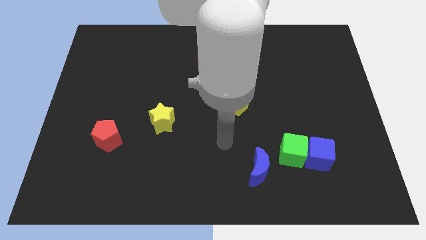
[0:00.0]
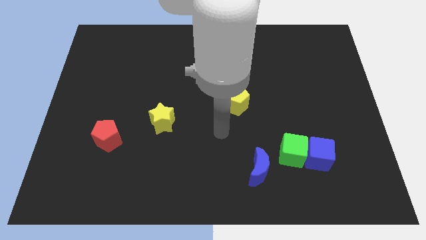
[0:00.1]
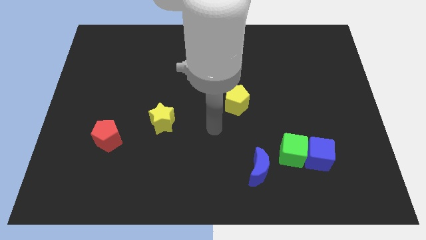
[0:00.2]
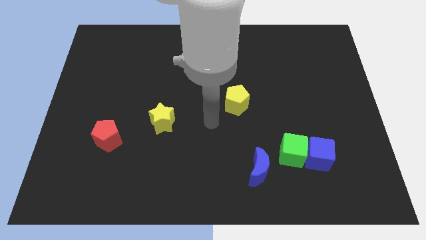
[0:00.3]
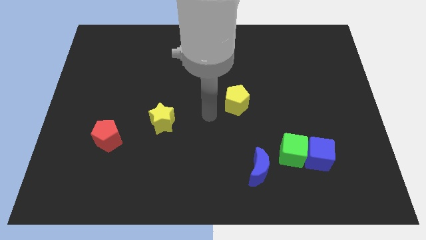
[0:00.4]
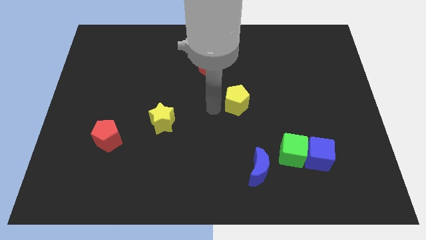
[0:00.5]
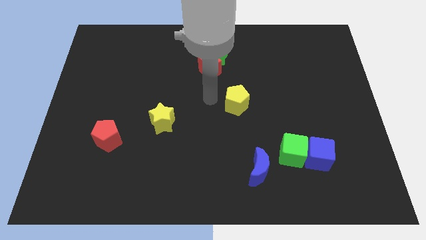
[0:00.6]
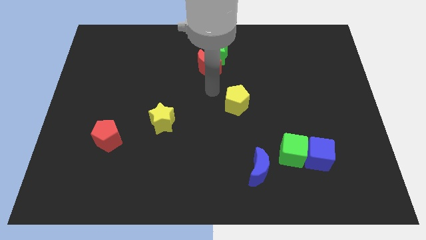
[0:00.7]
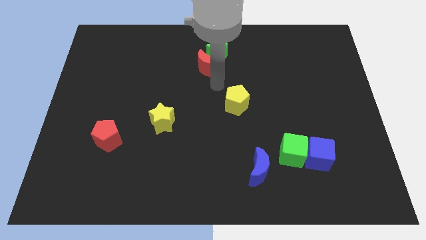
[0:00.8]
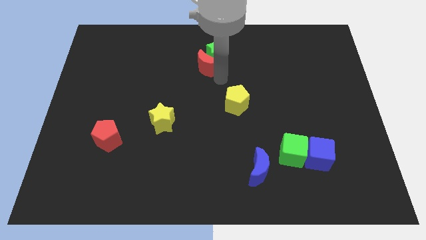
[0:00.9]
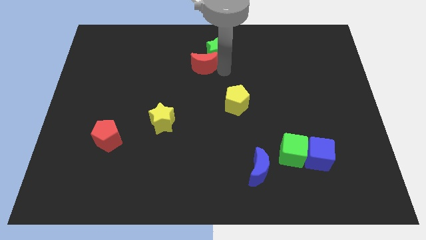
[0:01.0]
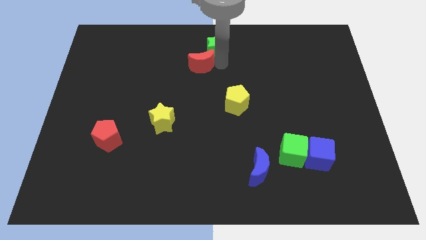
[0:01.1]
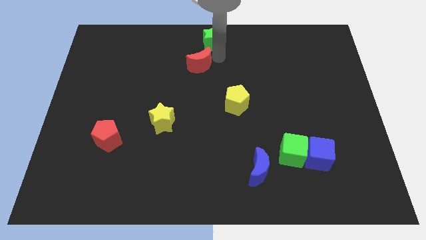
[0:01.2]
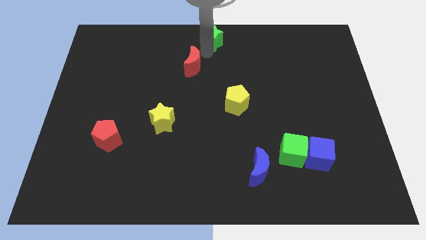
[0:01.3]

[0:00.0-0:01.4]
move the red moon away from the green star

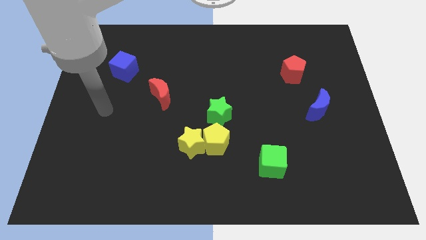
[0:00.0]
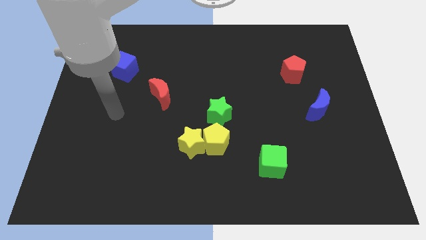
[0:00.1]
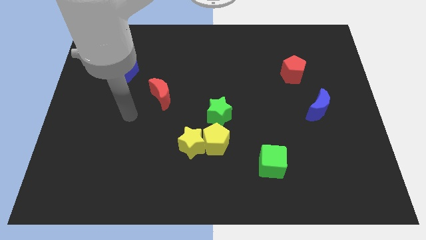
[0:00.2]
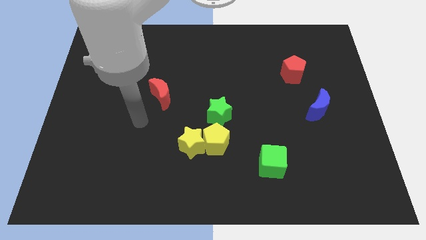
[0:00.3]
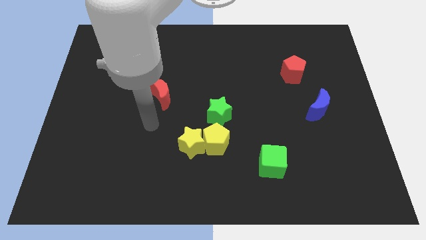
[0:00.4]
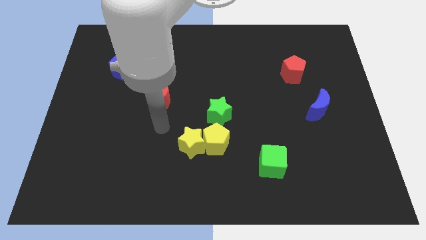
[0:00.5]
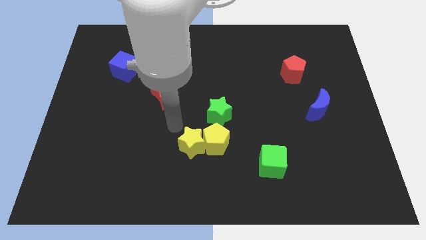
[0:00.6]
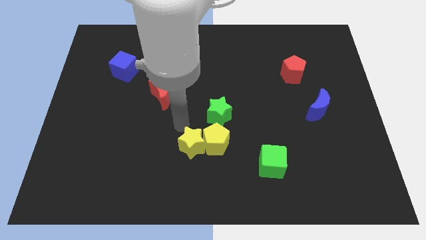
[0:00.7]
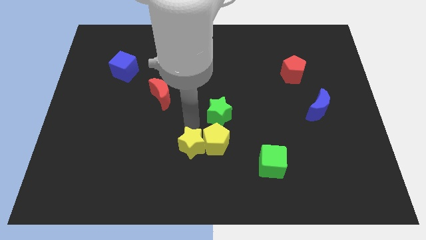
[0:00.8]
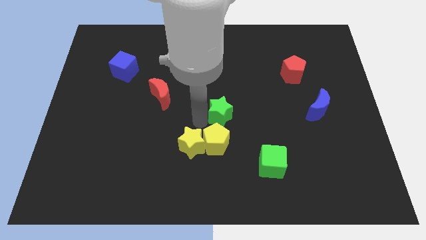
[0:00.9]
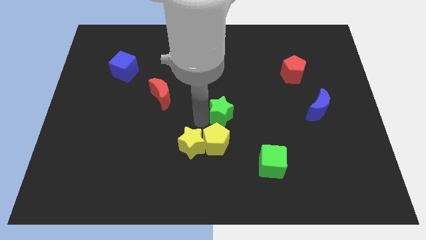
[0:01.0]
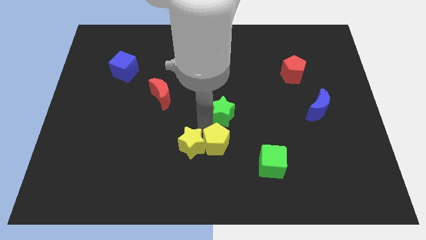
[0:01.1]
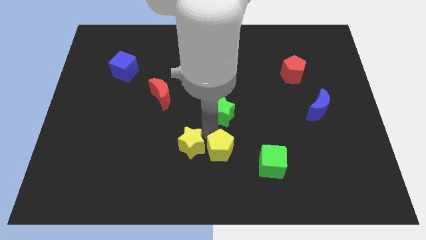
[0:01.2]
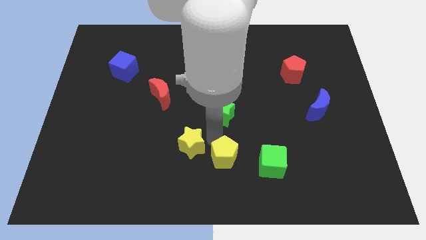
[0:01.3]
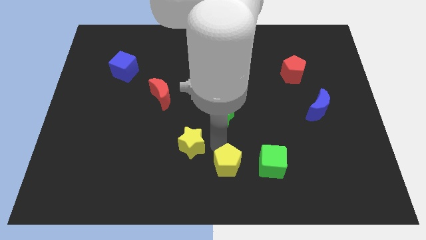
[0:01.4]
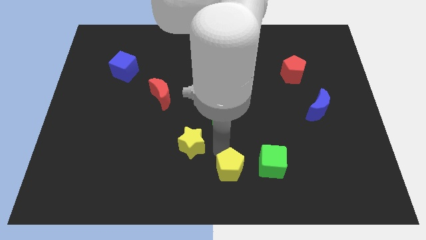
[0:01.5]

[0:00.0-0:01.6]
pull the yellow pentagon apart from the yellow star and green star

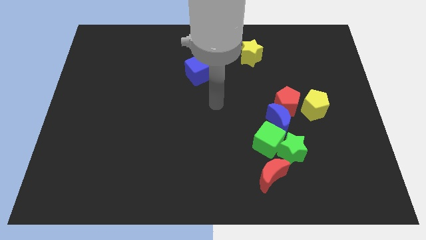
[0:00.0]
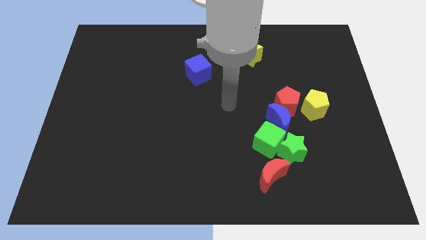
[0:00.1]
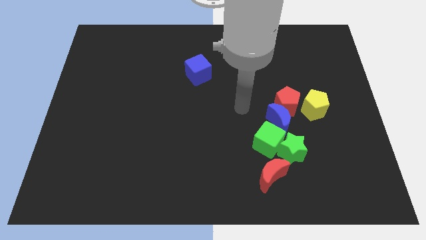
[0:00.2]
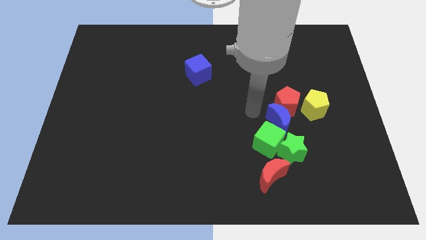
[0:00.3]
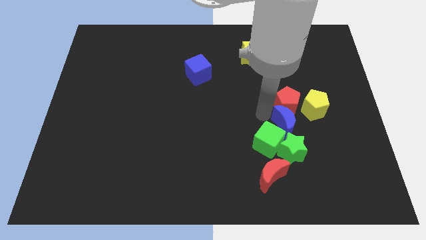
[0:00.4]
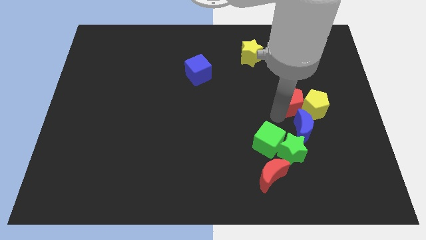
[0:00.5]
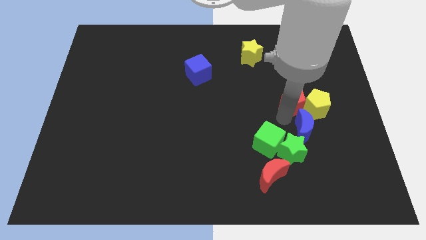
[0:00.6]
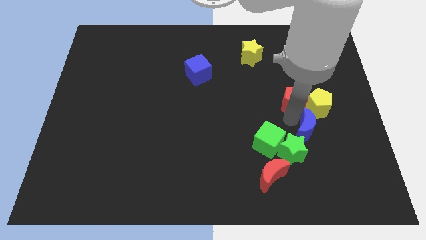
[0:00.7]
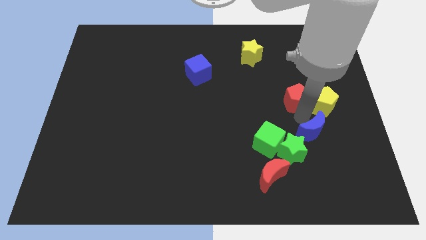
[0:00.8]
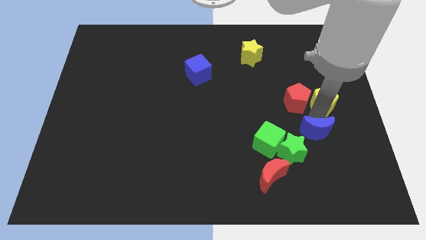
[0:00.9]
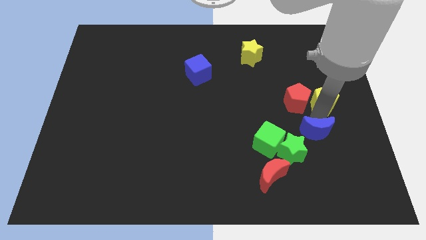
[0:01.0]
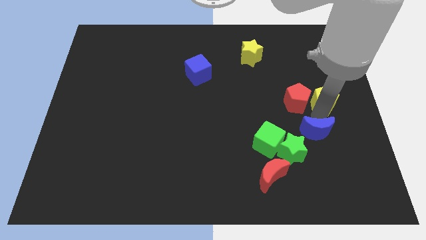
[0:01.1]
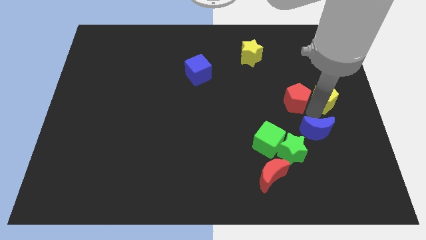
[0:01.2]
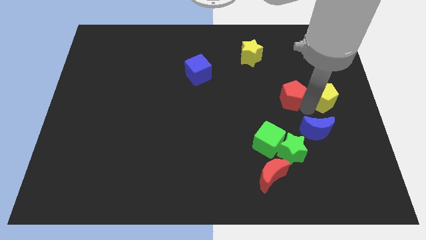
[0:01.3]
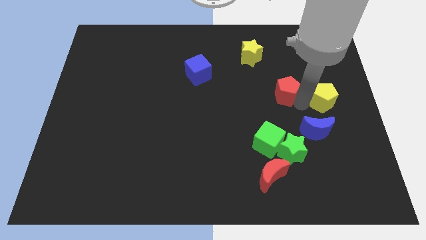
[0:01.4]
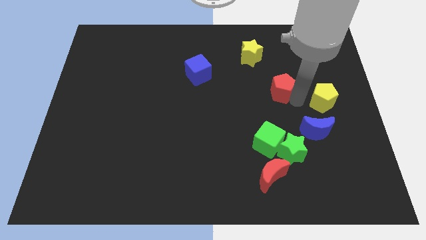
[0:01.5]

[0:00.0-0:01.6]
separate the red pentagon from the blue moon and yellow pentagon

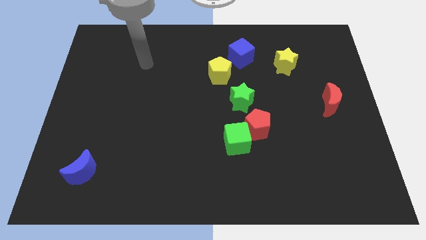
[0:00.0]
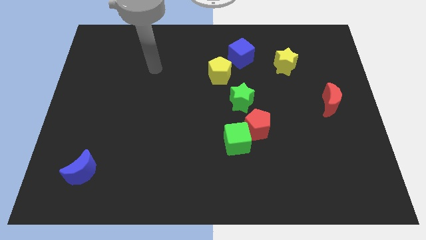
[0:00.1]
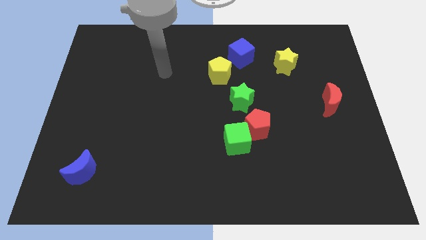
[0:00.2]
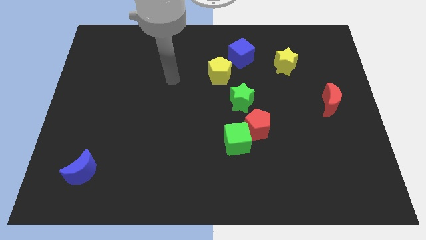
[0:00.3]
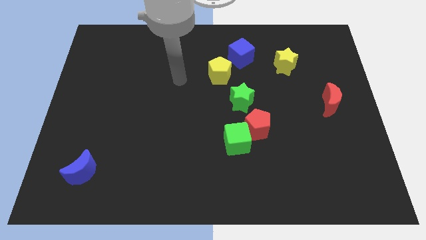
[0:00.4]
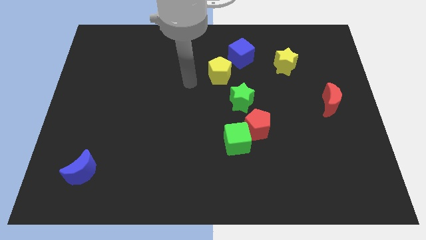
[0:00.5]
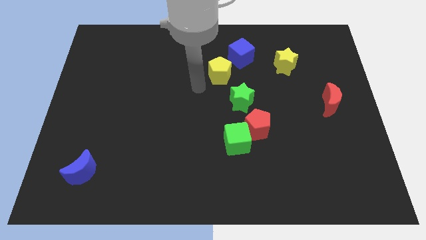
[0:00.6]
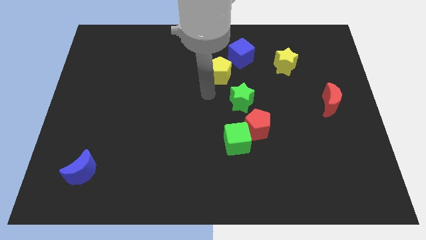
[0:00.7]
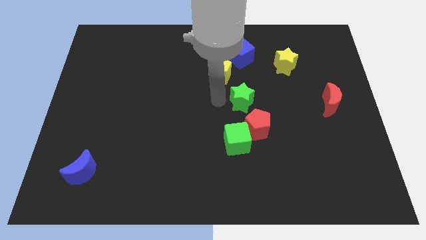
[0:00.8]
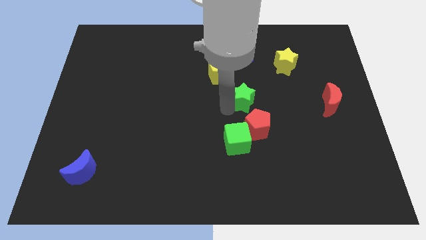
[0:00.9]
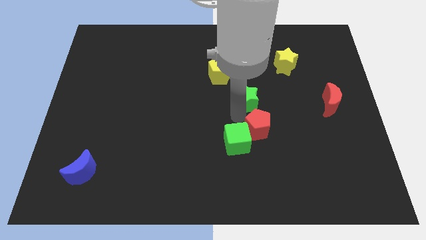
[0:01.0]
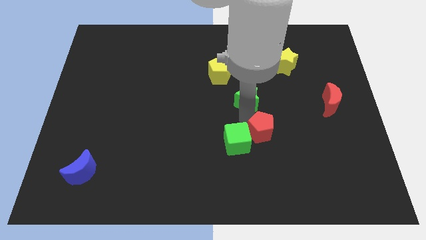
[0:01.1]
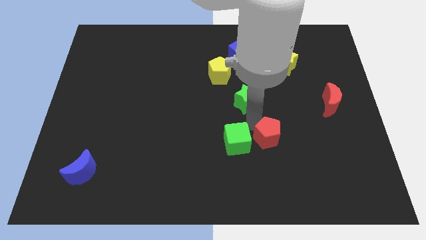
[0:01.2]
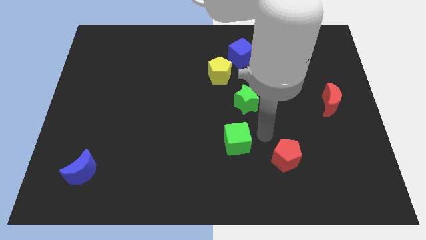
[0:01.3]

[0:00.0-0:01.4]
separate the green cube from the red pentagon

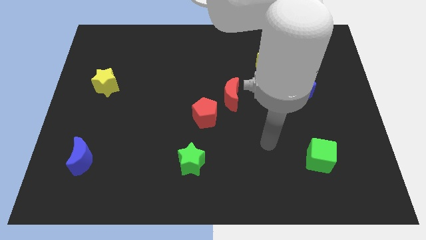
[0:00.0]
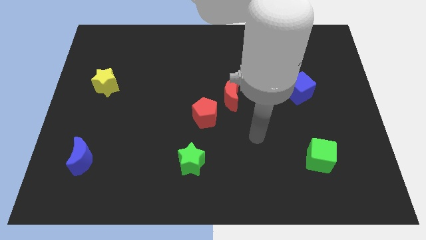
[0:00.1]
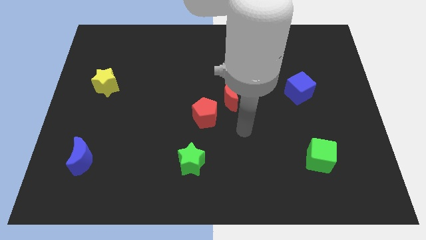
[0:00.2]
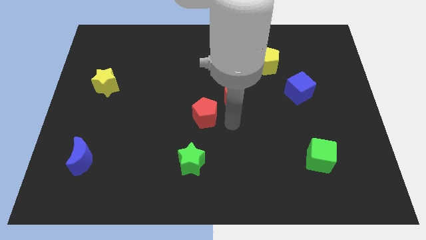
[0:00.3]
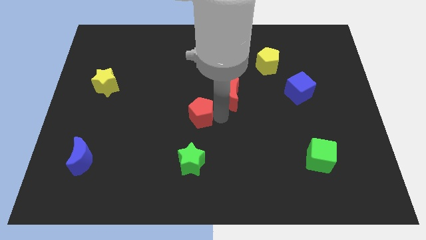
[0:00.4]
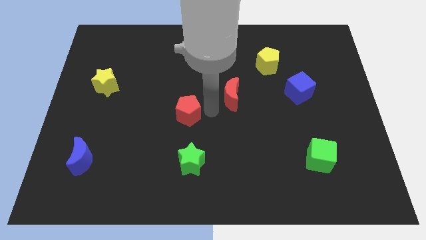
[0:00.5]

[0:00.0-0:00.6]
move the red moon away from the red pentagon

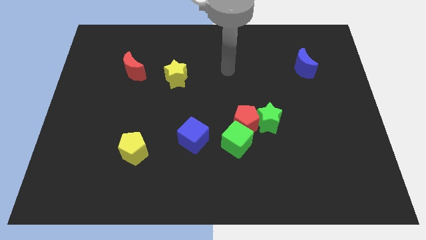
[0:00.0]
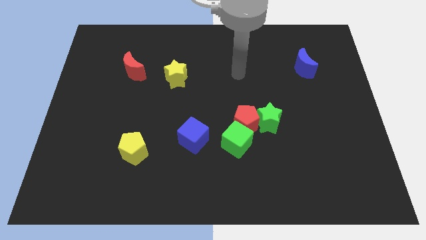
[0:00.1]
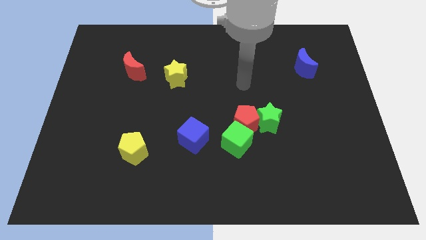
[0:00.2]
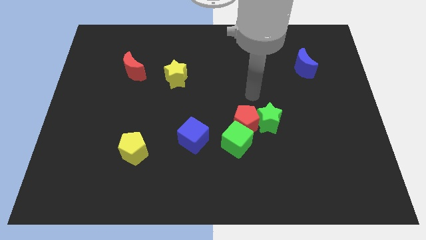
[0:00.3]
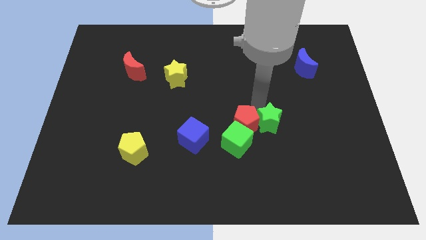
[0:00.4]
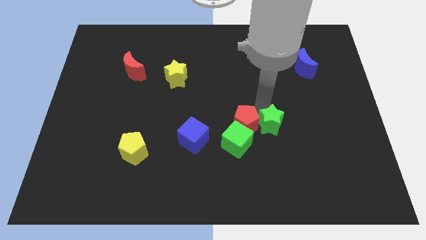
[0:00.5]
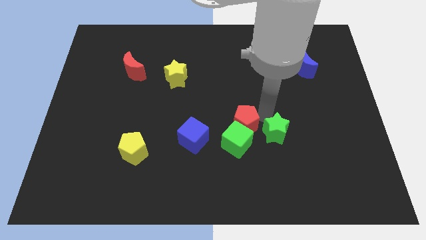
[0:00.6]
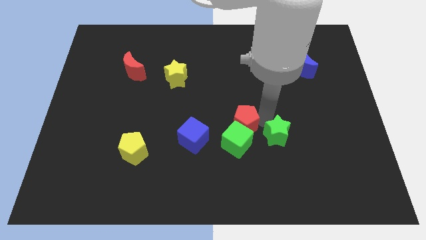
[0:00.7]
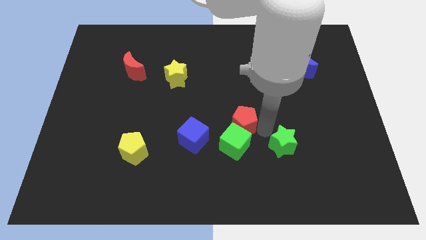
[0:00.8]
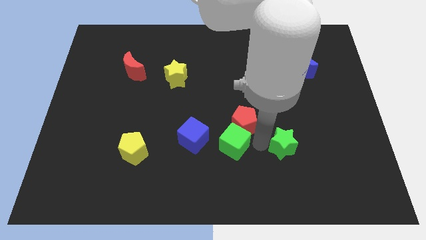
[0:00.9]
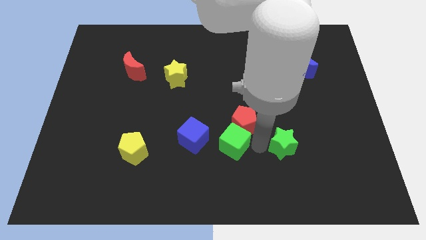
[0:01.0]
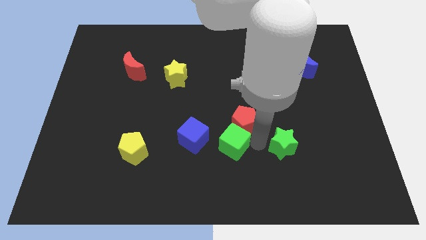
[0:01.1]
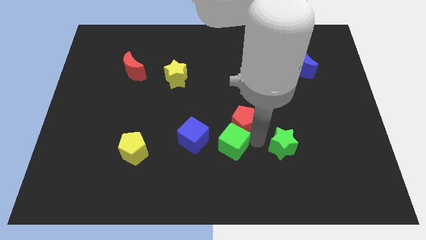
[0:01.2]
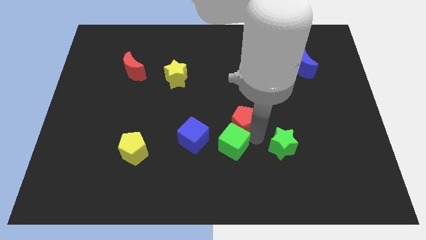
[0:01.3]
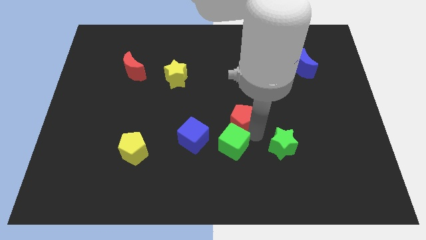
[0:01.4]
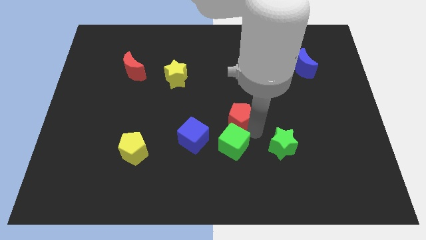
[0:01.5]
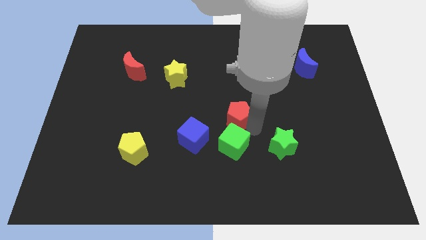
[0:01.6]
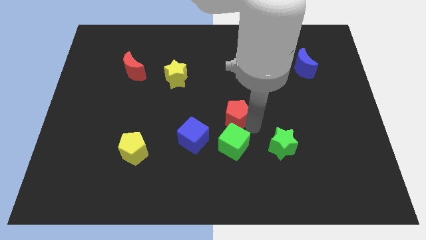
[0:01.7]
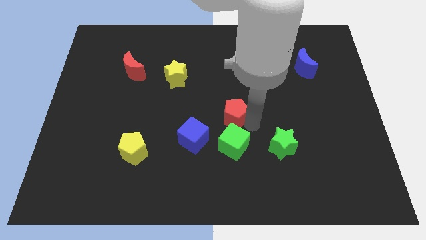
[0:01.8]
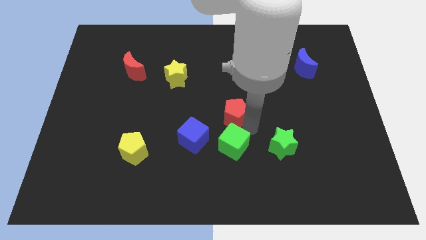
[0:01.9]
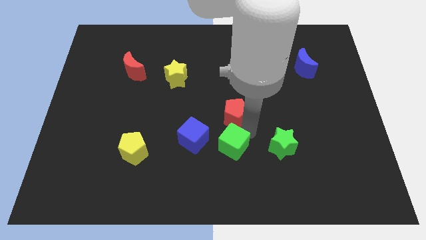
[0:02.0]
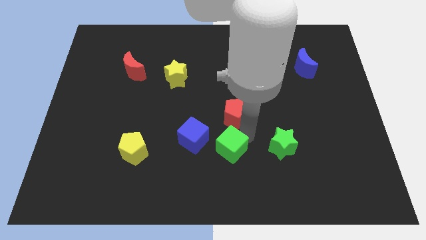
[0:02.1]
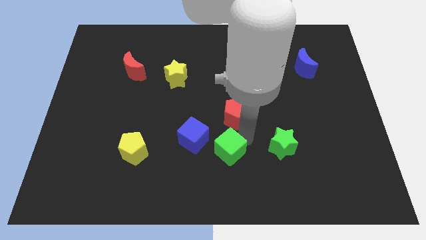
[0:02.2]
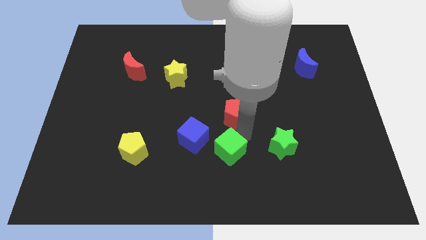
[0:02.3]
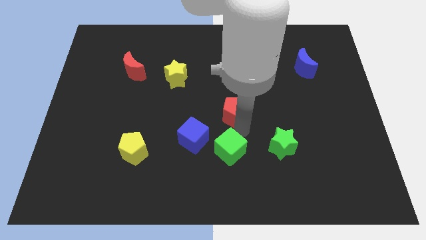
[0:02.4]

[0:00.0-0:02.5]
move the red pentagon away from the green star and green cube

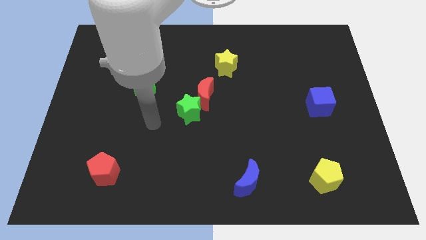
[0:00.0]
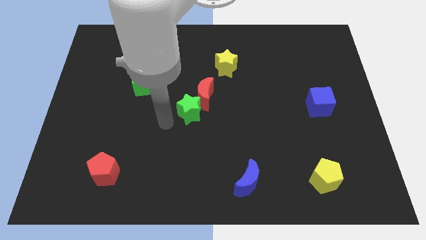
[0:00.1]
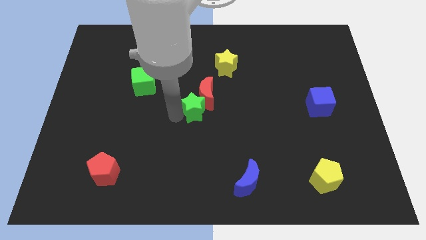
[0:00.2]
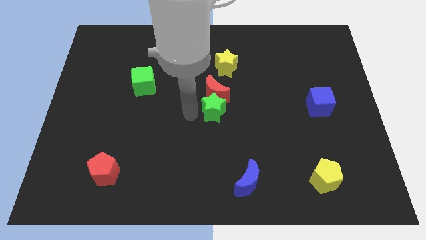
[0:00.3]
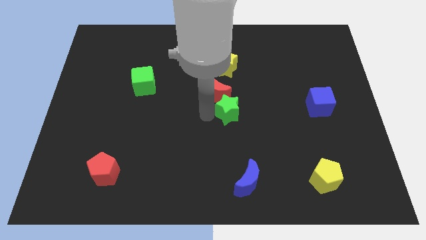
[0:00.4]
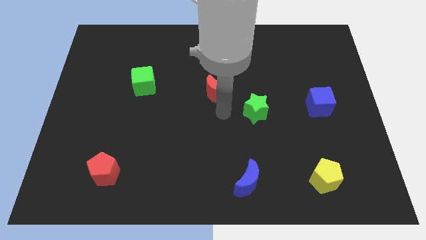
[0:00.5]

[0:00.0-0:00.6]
separate the red moon from the green star
